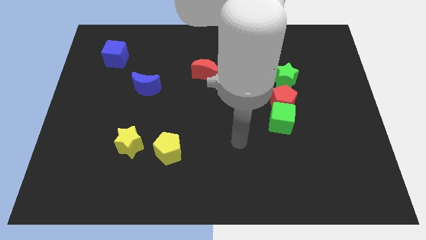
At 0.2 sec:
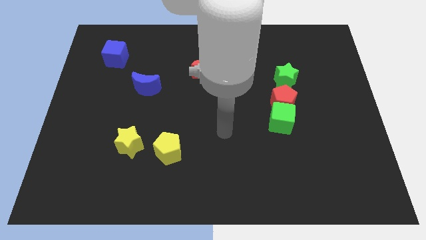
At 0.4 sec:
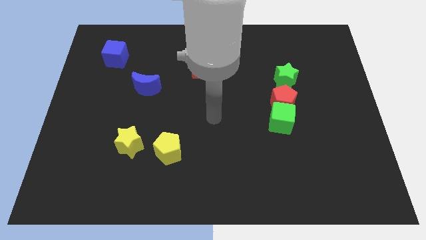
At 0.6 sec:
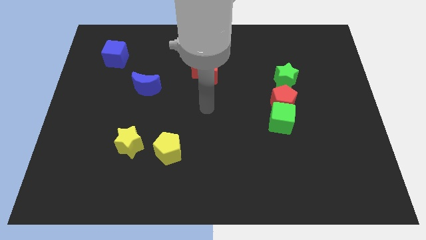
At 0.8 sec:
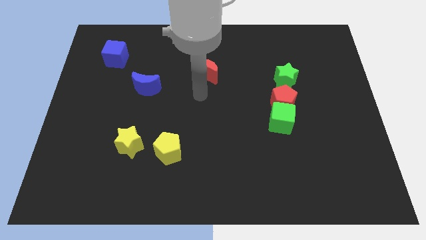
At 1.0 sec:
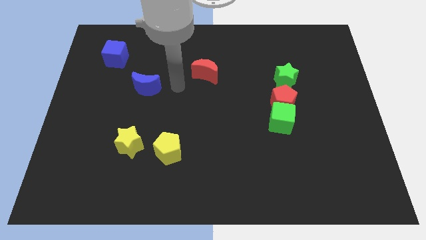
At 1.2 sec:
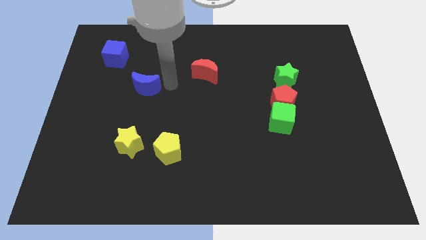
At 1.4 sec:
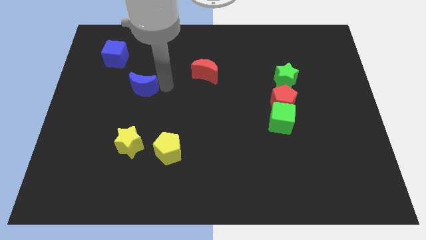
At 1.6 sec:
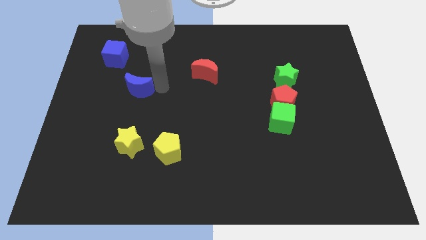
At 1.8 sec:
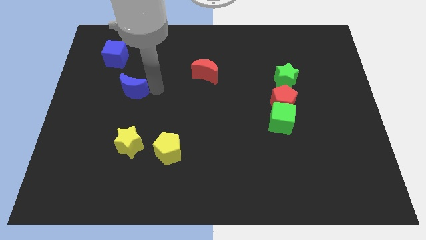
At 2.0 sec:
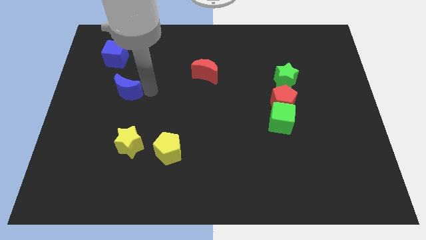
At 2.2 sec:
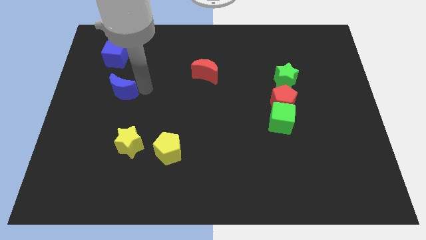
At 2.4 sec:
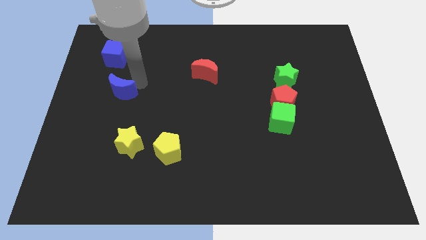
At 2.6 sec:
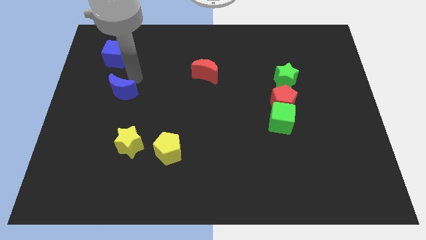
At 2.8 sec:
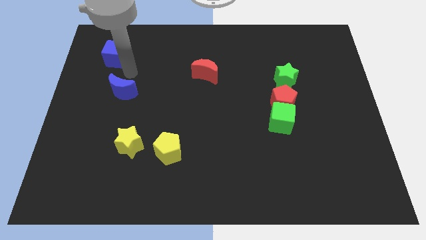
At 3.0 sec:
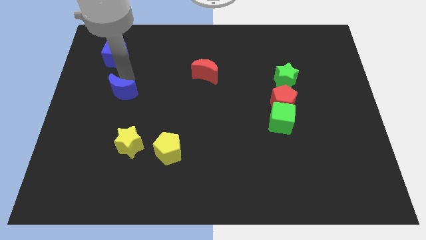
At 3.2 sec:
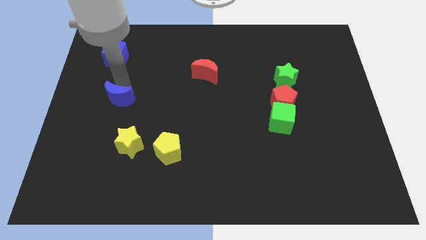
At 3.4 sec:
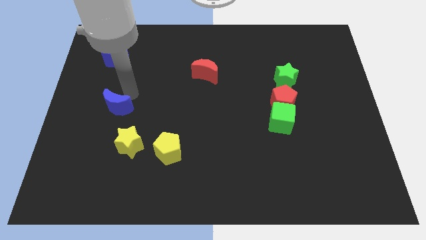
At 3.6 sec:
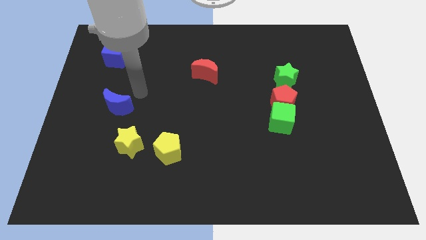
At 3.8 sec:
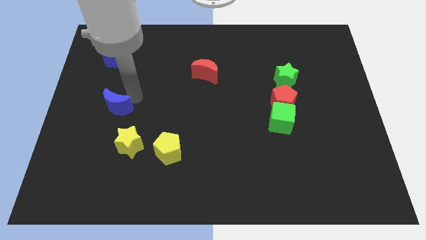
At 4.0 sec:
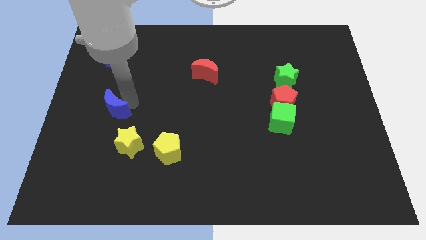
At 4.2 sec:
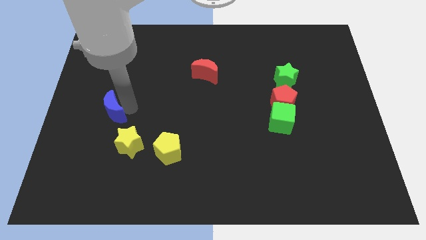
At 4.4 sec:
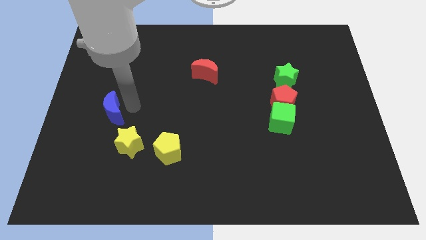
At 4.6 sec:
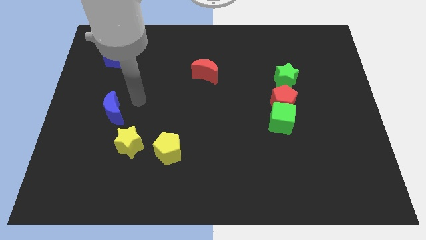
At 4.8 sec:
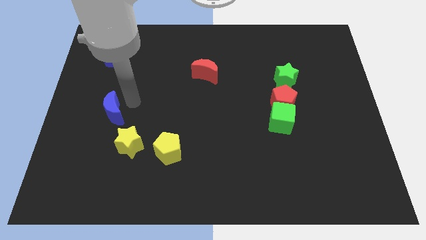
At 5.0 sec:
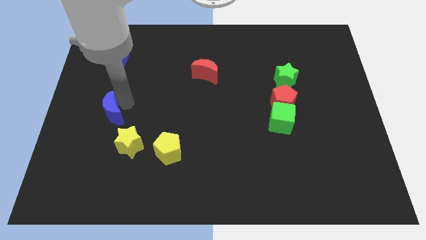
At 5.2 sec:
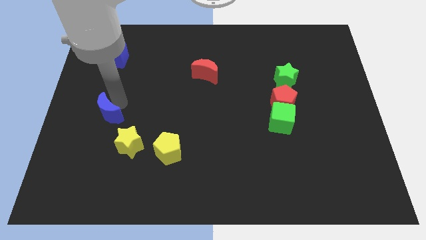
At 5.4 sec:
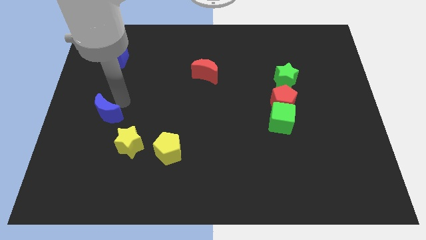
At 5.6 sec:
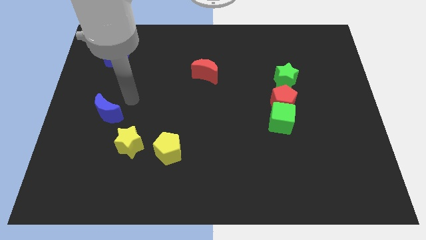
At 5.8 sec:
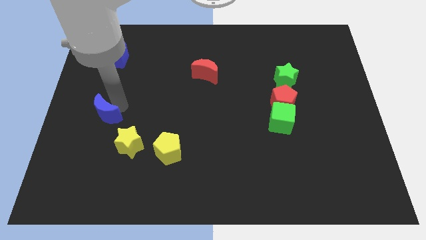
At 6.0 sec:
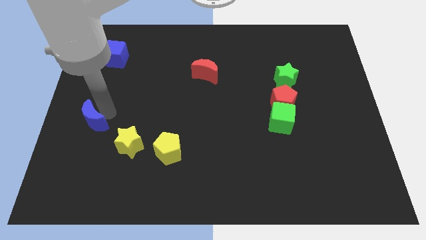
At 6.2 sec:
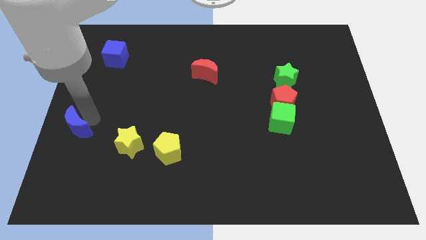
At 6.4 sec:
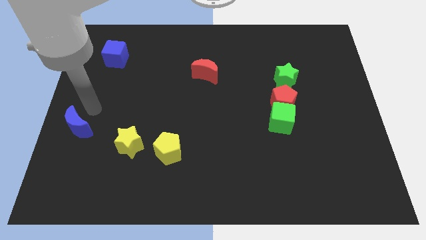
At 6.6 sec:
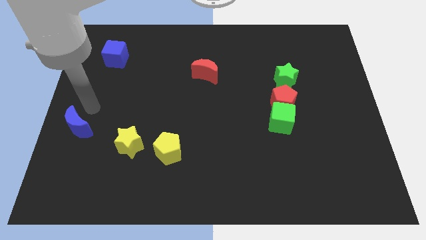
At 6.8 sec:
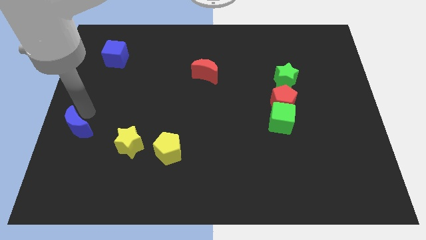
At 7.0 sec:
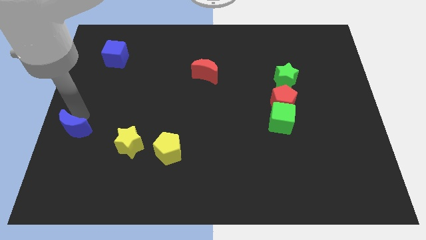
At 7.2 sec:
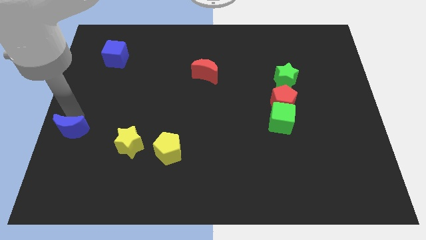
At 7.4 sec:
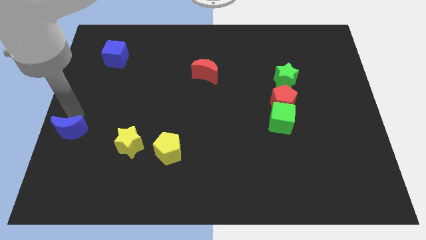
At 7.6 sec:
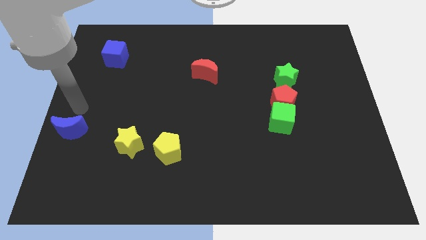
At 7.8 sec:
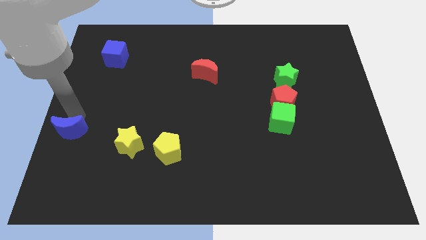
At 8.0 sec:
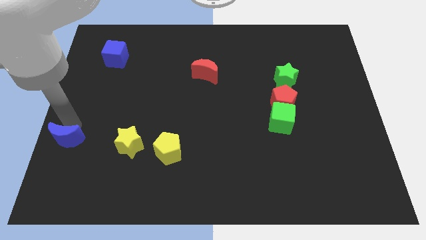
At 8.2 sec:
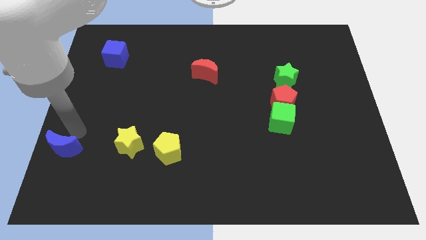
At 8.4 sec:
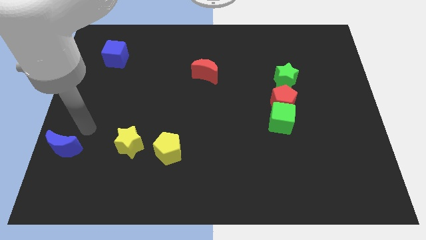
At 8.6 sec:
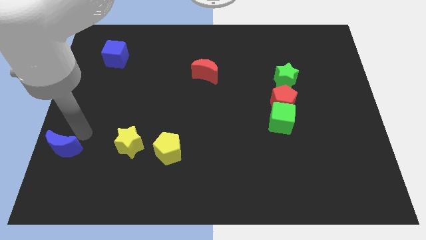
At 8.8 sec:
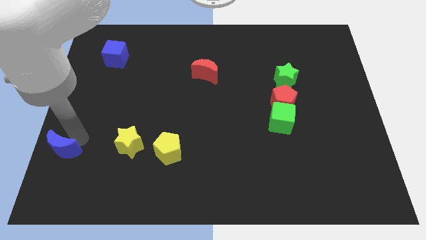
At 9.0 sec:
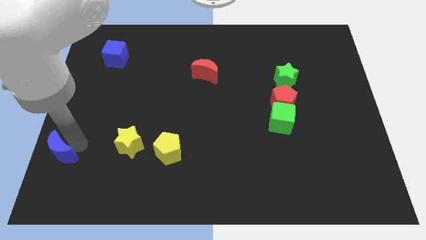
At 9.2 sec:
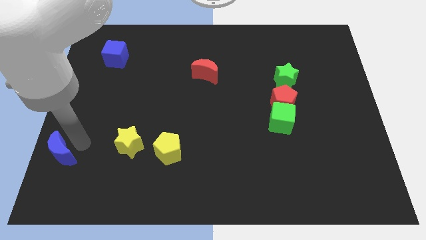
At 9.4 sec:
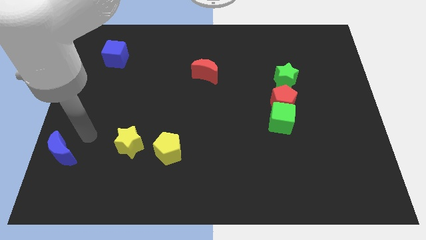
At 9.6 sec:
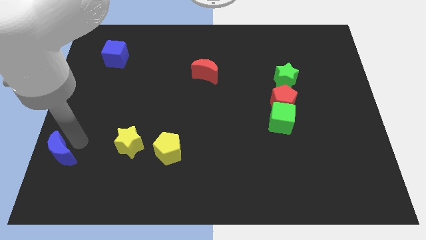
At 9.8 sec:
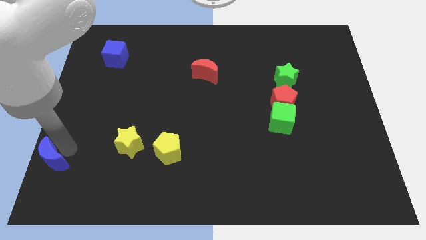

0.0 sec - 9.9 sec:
push the blue moon to the bottom left

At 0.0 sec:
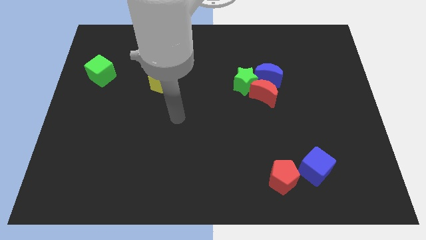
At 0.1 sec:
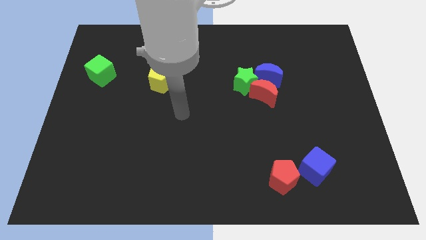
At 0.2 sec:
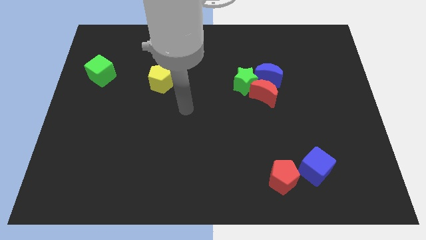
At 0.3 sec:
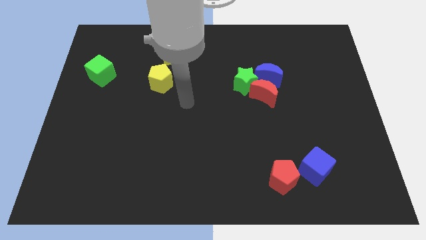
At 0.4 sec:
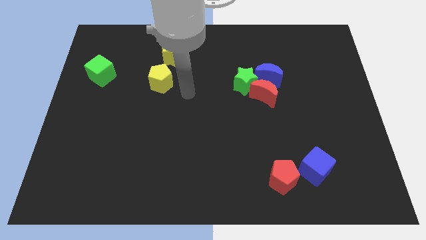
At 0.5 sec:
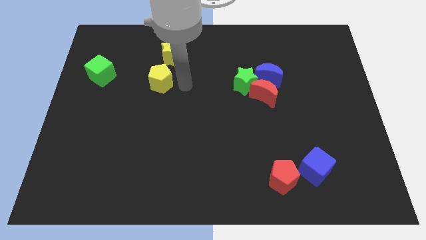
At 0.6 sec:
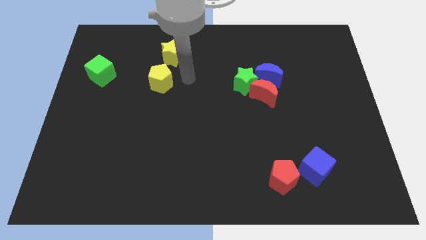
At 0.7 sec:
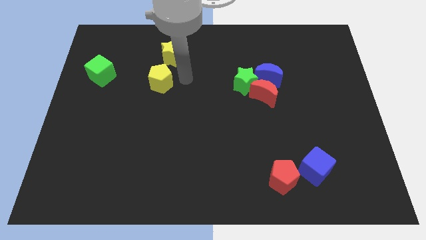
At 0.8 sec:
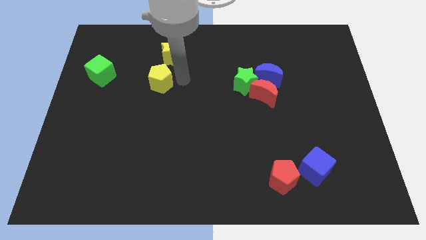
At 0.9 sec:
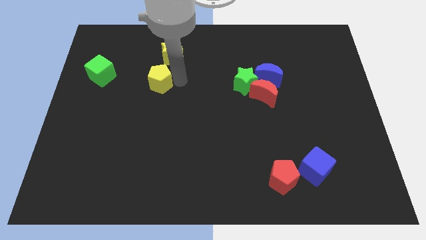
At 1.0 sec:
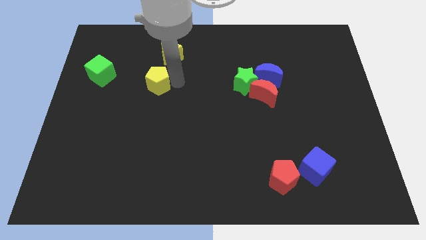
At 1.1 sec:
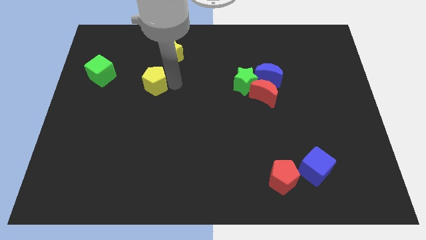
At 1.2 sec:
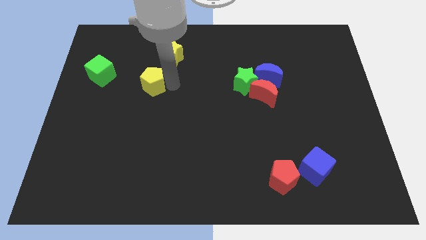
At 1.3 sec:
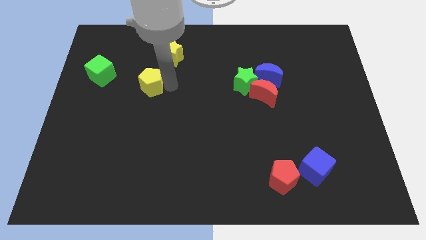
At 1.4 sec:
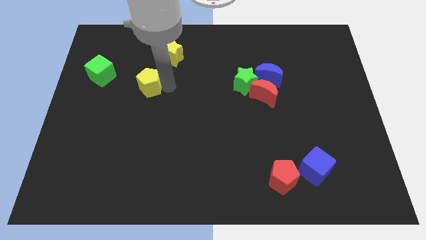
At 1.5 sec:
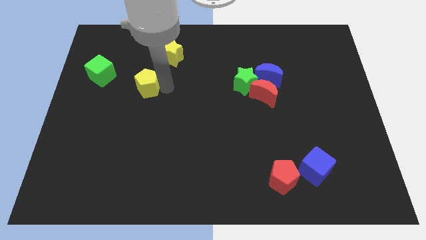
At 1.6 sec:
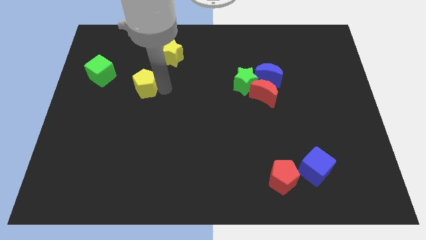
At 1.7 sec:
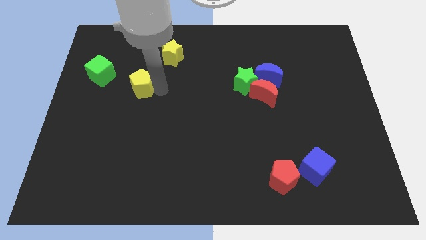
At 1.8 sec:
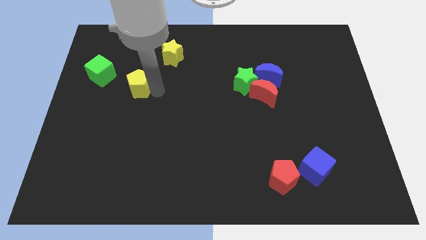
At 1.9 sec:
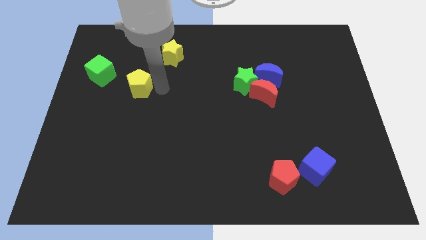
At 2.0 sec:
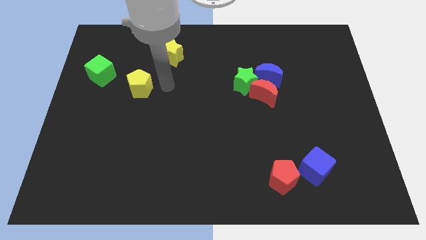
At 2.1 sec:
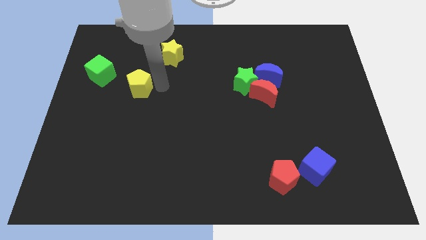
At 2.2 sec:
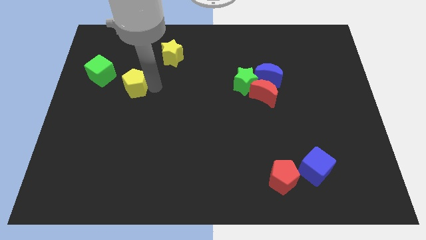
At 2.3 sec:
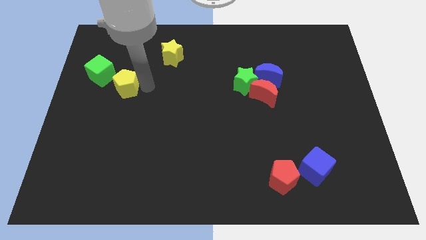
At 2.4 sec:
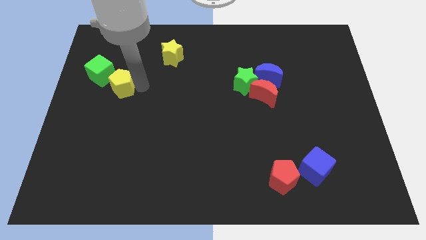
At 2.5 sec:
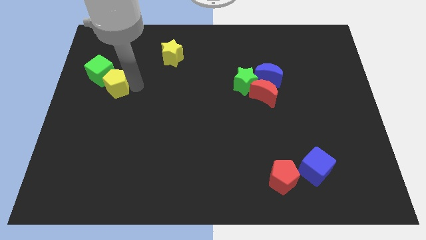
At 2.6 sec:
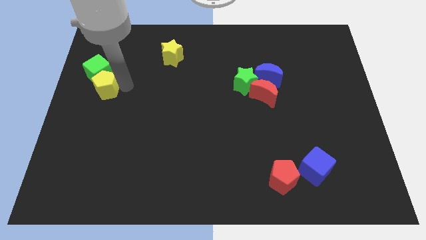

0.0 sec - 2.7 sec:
put the yellow pentagon to the center left
